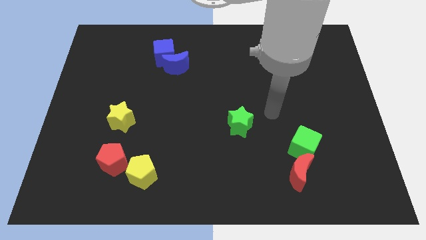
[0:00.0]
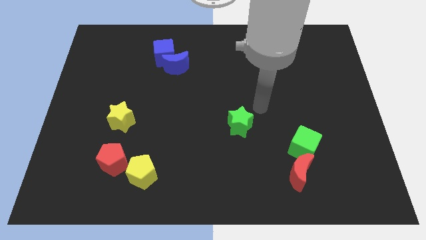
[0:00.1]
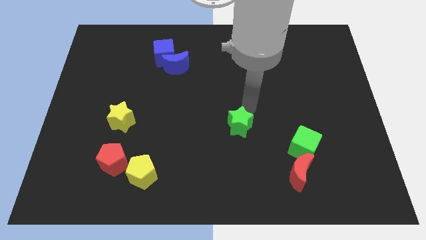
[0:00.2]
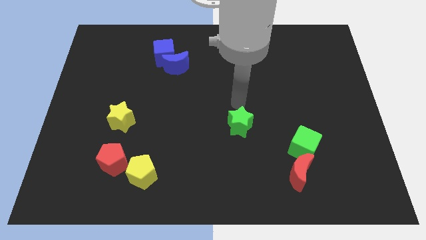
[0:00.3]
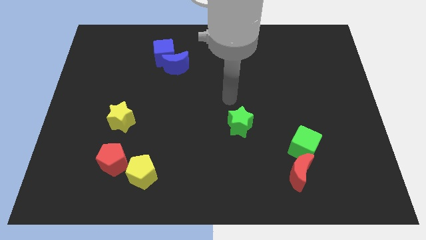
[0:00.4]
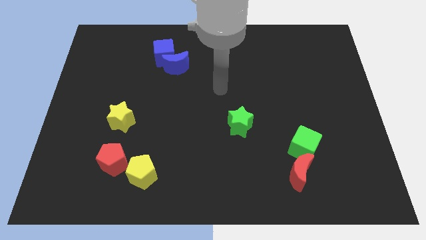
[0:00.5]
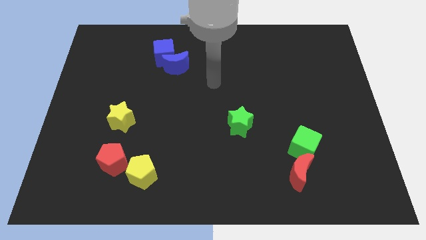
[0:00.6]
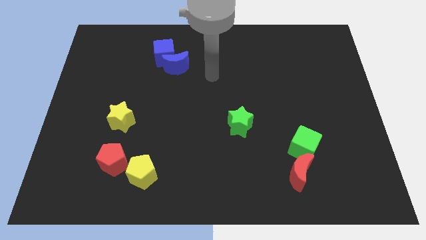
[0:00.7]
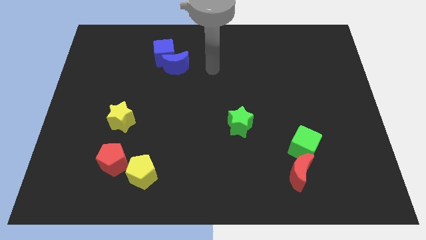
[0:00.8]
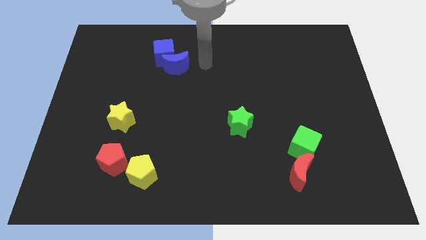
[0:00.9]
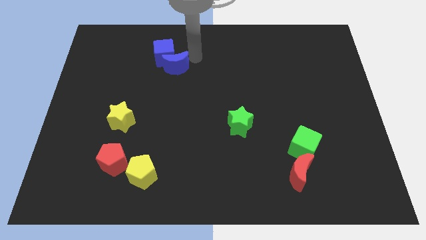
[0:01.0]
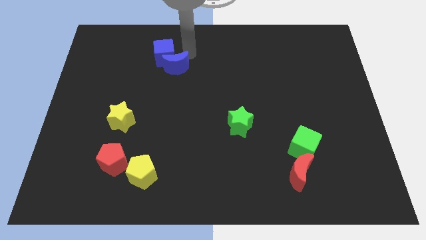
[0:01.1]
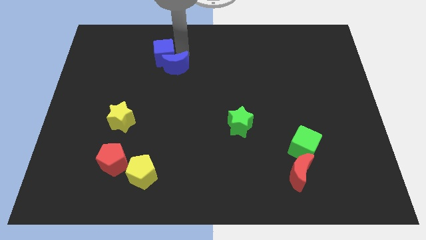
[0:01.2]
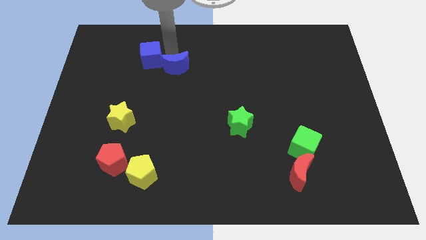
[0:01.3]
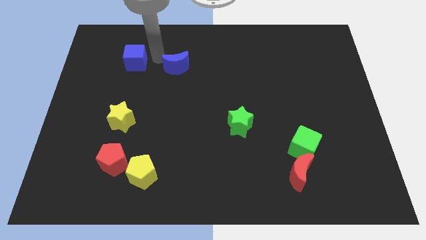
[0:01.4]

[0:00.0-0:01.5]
move the blue moon away from the blue cube

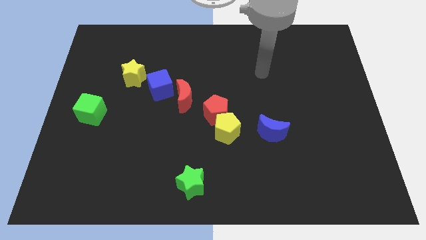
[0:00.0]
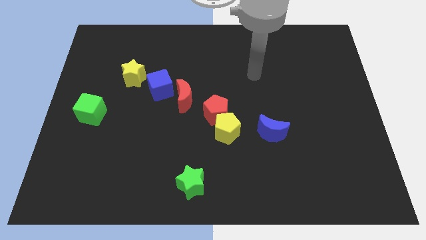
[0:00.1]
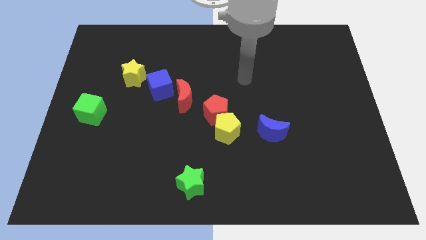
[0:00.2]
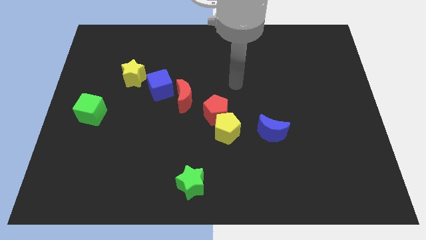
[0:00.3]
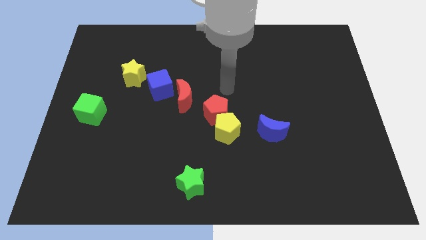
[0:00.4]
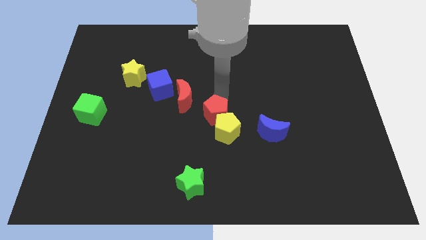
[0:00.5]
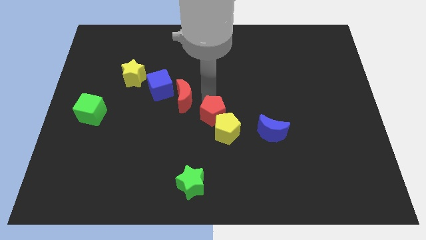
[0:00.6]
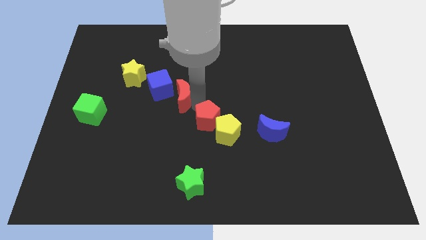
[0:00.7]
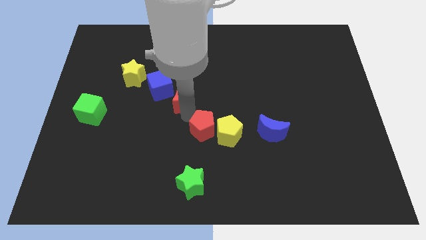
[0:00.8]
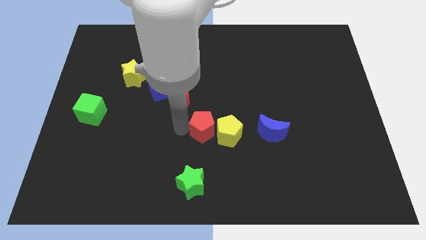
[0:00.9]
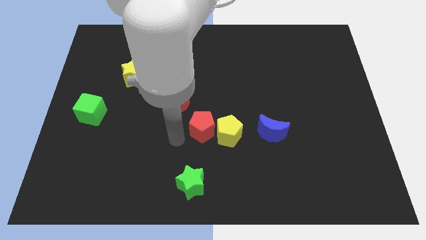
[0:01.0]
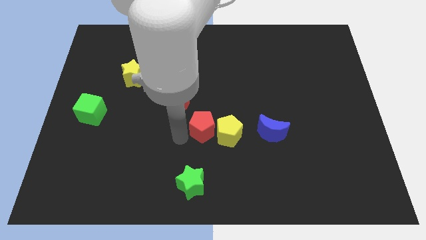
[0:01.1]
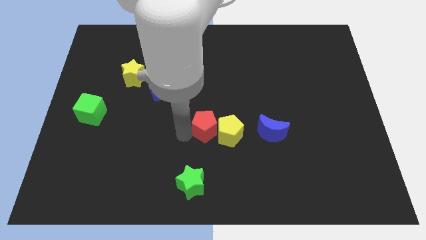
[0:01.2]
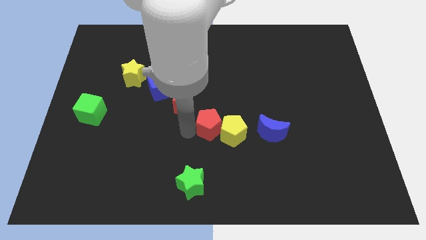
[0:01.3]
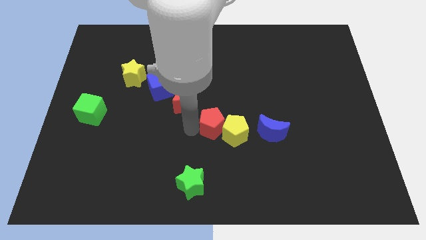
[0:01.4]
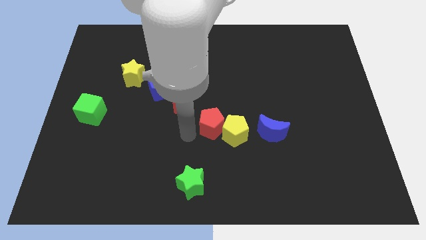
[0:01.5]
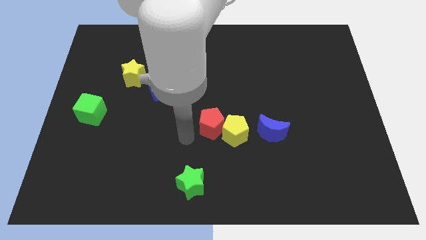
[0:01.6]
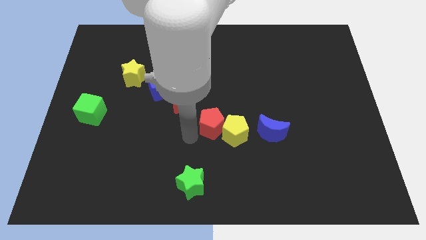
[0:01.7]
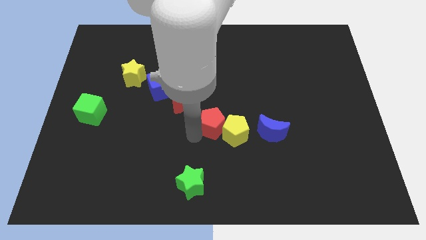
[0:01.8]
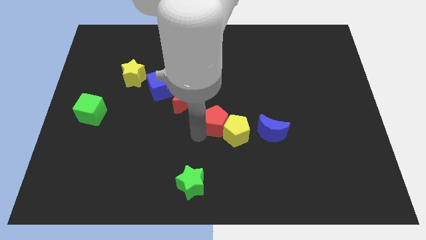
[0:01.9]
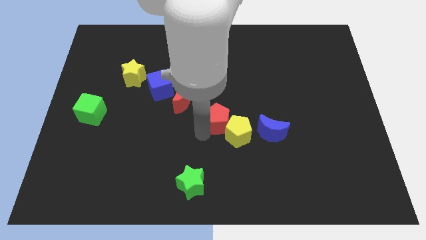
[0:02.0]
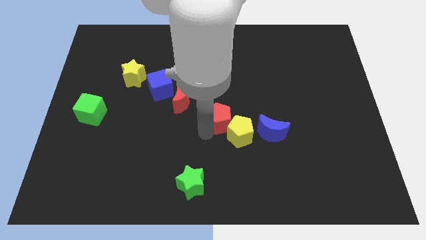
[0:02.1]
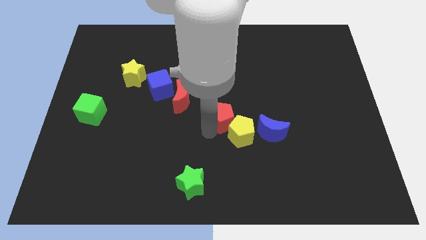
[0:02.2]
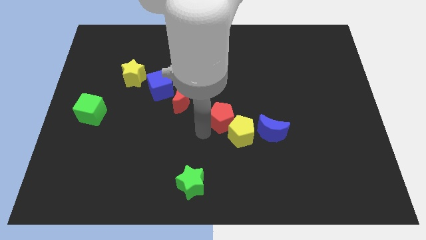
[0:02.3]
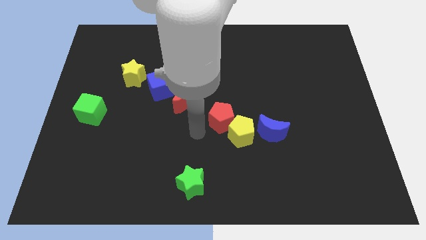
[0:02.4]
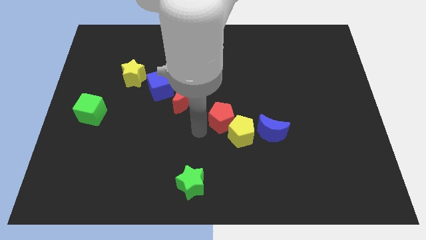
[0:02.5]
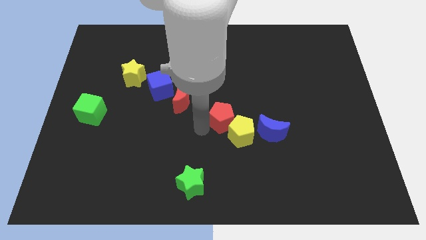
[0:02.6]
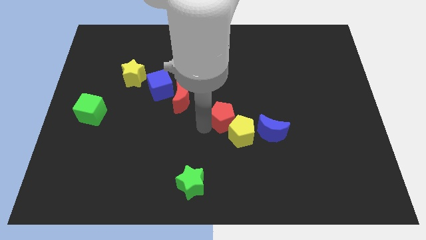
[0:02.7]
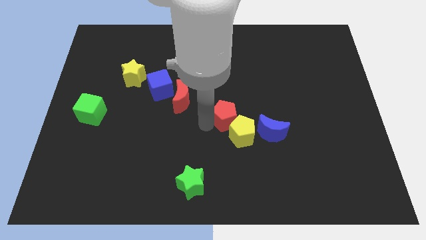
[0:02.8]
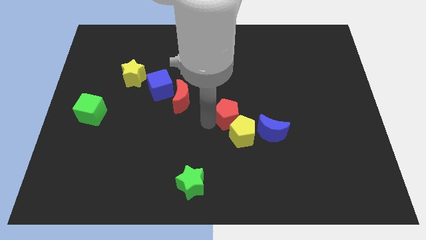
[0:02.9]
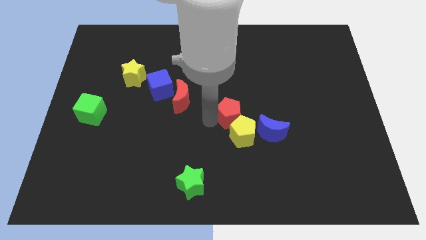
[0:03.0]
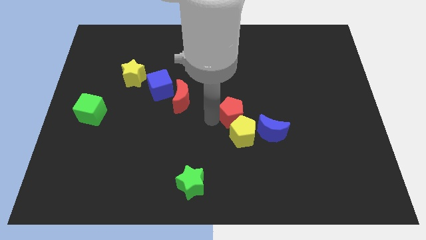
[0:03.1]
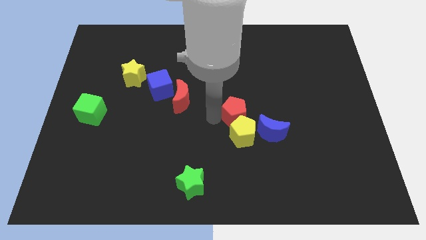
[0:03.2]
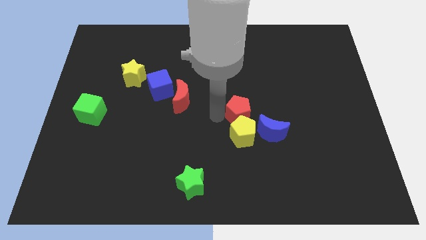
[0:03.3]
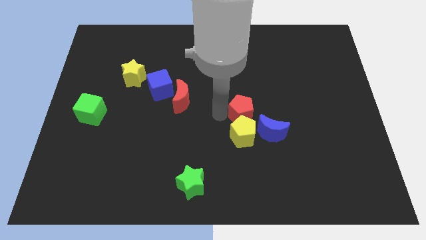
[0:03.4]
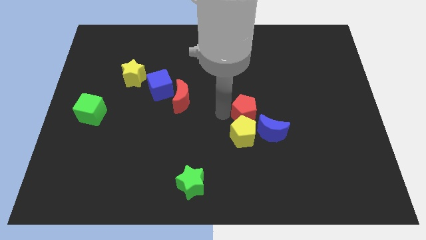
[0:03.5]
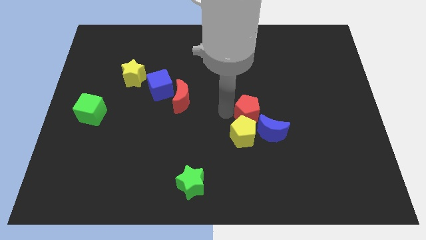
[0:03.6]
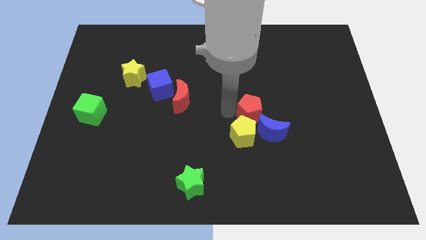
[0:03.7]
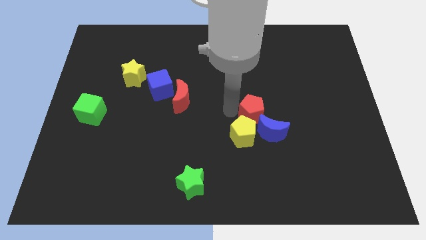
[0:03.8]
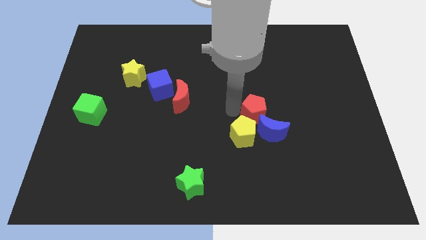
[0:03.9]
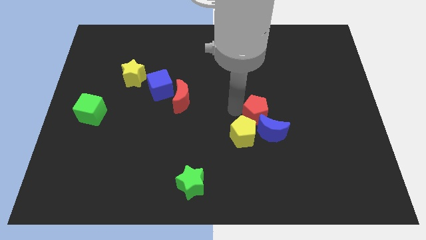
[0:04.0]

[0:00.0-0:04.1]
move the red pentagon away from the yellow pentagon and red moon

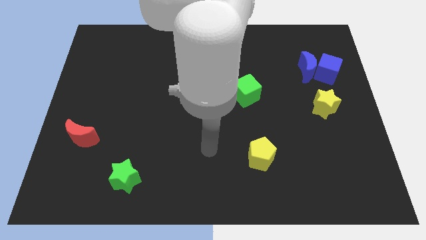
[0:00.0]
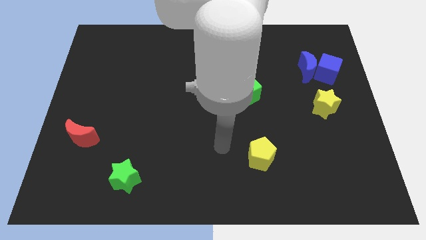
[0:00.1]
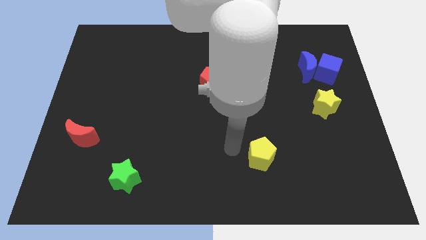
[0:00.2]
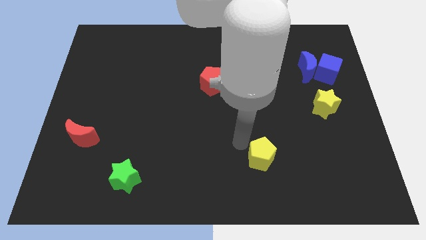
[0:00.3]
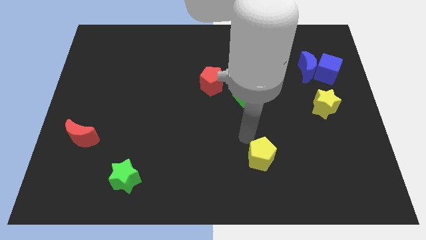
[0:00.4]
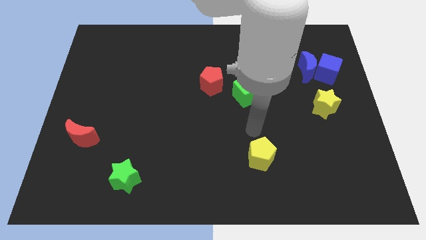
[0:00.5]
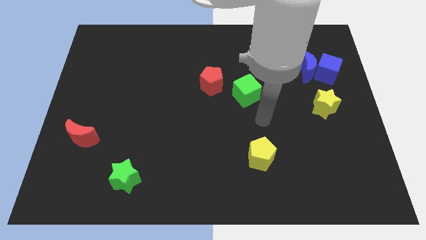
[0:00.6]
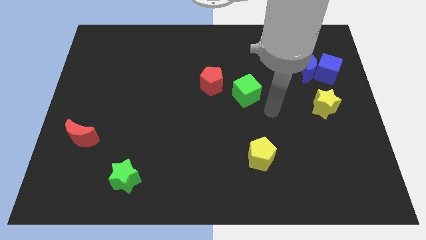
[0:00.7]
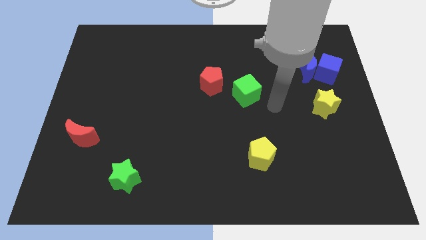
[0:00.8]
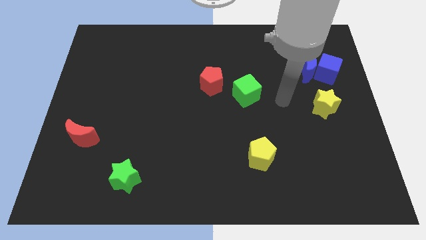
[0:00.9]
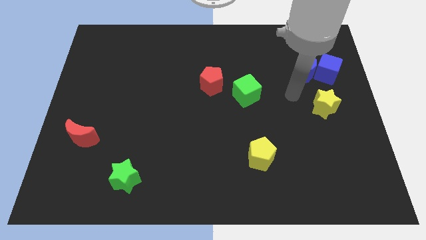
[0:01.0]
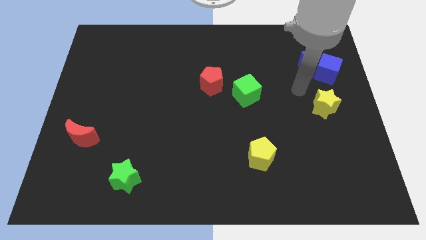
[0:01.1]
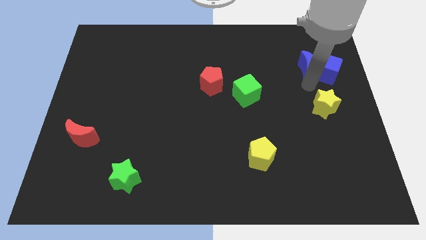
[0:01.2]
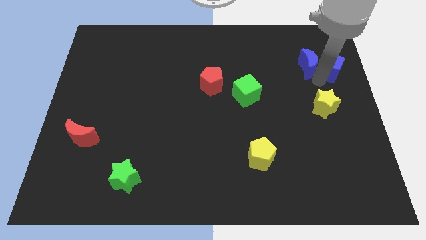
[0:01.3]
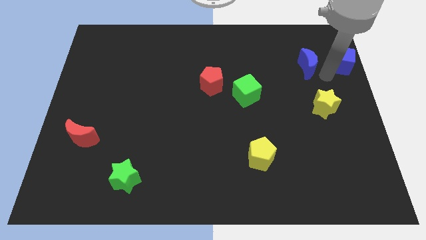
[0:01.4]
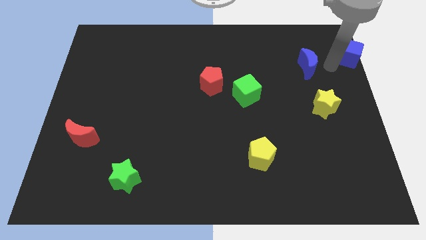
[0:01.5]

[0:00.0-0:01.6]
pull the blue moon apart from the blue cube

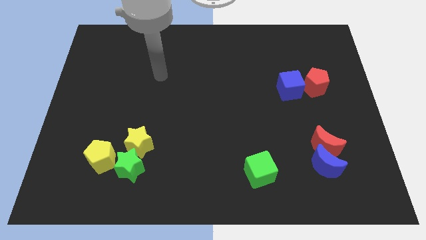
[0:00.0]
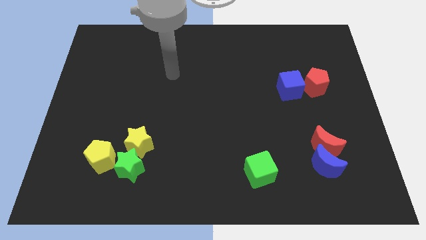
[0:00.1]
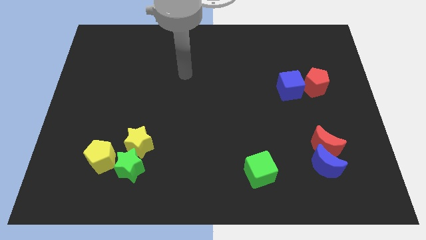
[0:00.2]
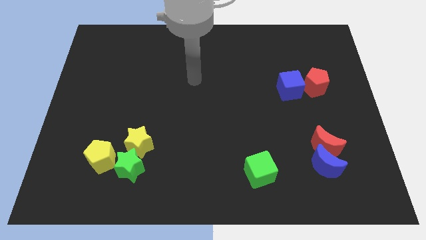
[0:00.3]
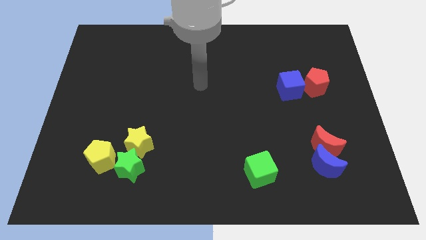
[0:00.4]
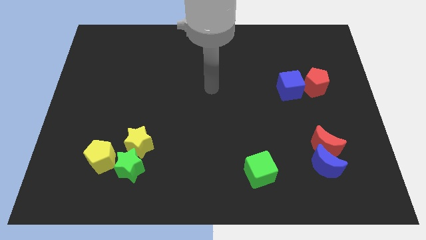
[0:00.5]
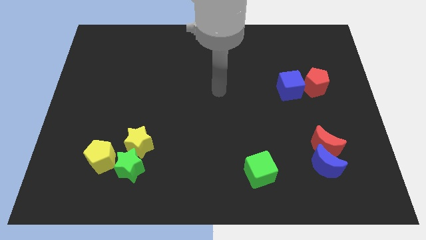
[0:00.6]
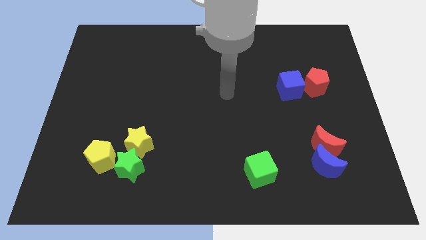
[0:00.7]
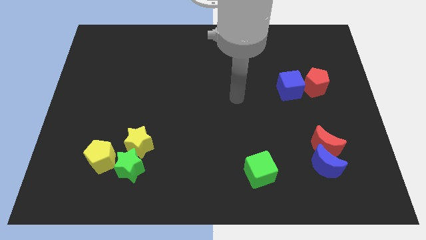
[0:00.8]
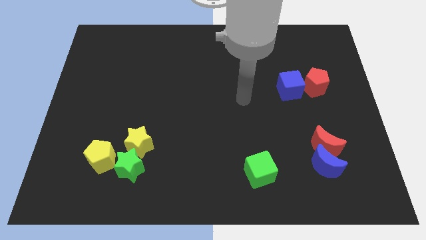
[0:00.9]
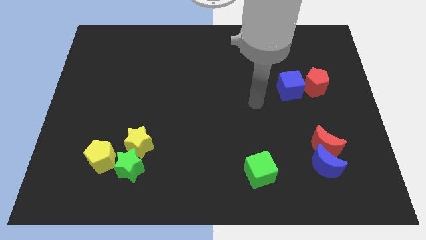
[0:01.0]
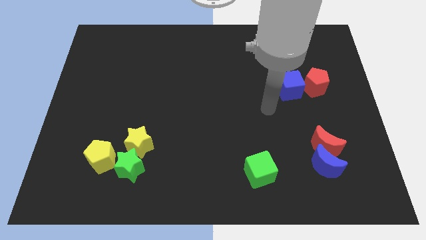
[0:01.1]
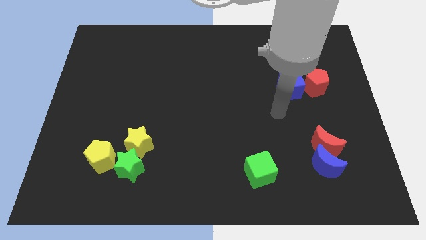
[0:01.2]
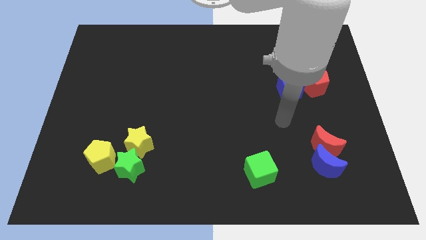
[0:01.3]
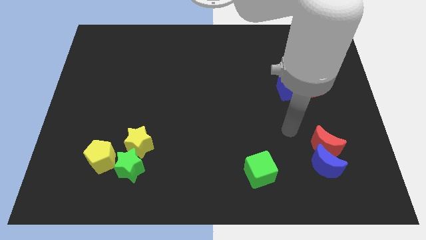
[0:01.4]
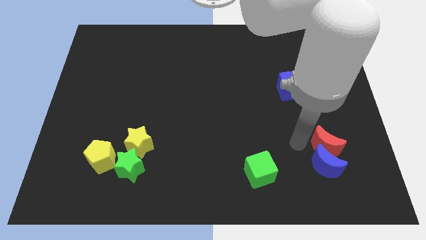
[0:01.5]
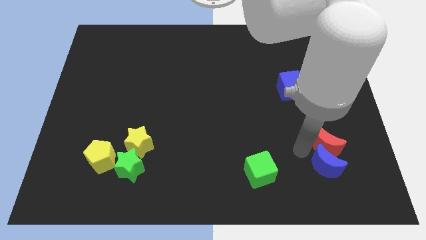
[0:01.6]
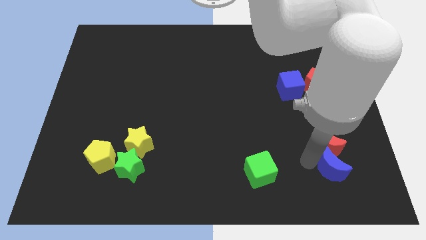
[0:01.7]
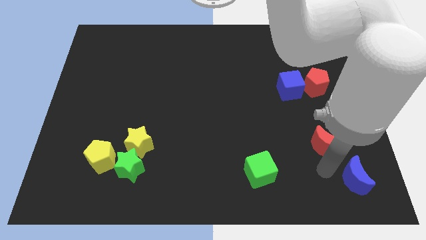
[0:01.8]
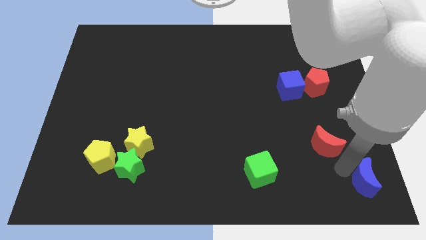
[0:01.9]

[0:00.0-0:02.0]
move the red moon away from the blue moon

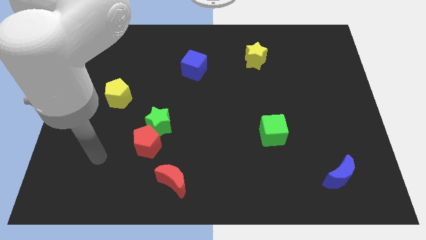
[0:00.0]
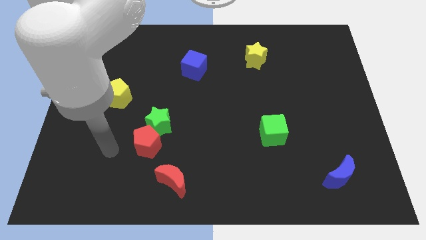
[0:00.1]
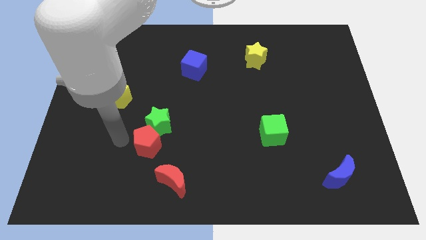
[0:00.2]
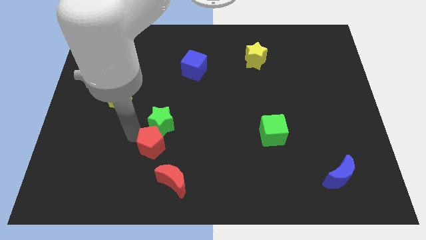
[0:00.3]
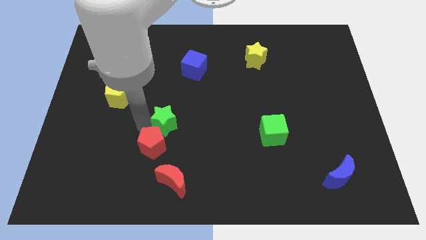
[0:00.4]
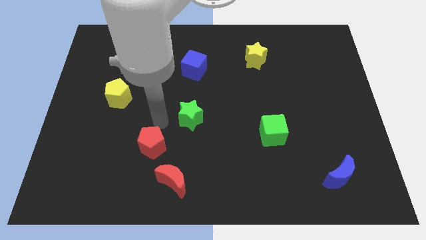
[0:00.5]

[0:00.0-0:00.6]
move the red pentagon away from the green star
